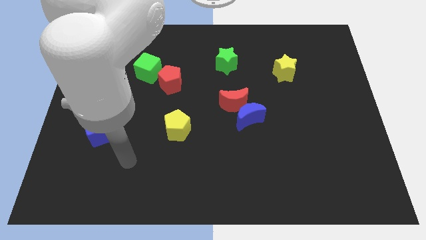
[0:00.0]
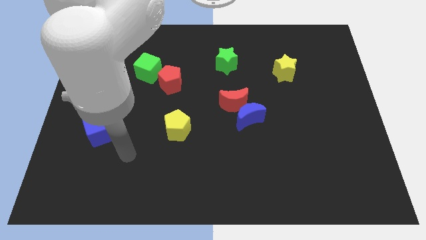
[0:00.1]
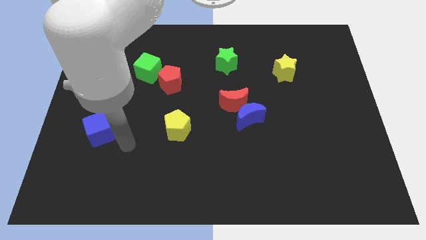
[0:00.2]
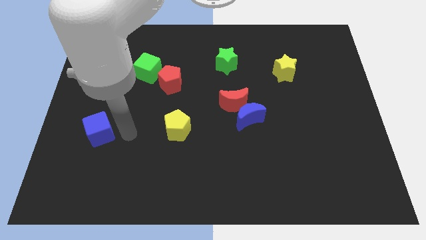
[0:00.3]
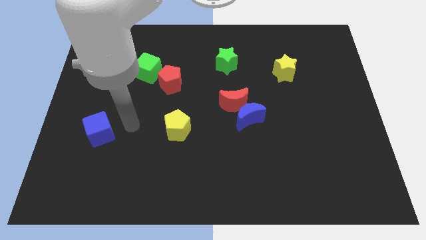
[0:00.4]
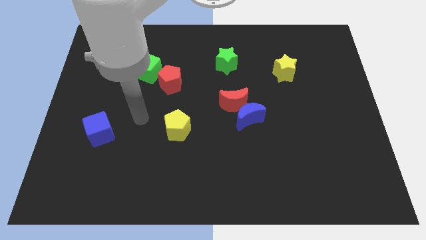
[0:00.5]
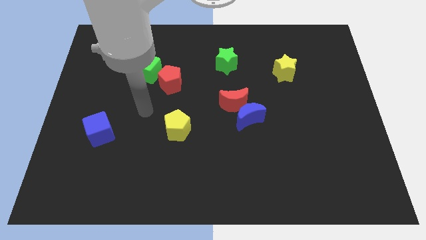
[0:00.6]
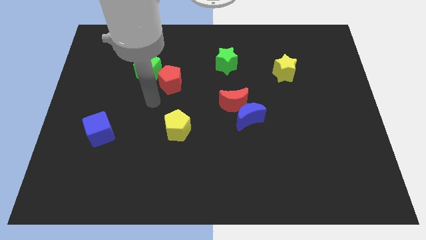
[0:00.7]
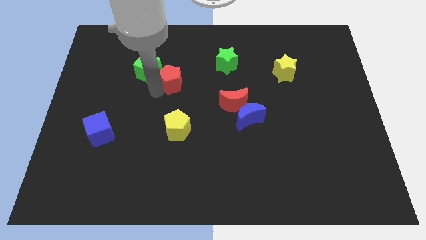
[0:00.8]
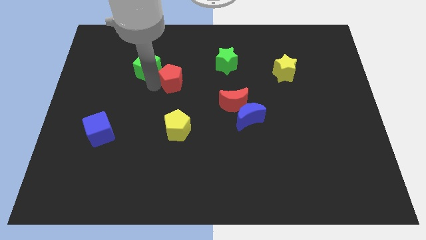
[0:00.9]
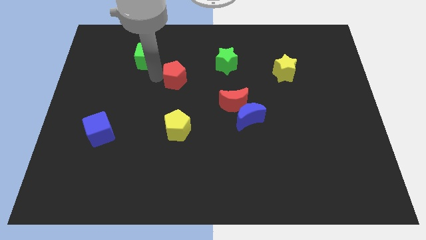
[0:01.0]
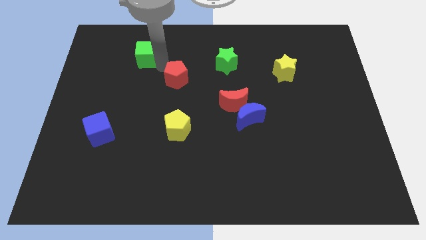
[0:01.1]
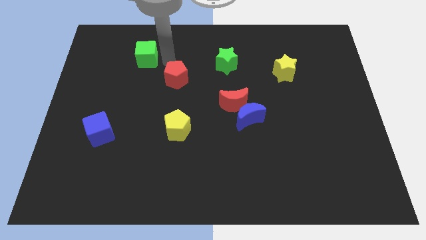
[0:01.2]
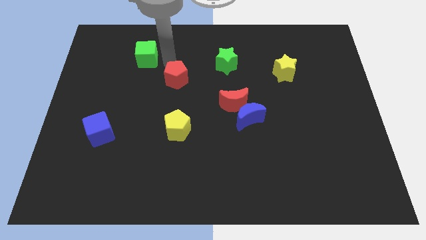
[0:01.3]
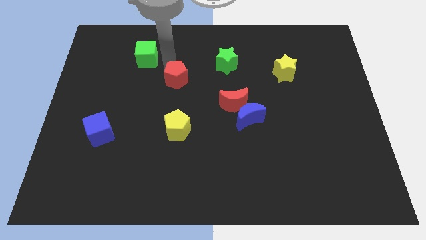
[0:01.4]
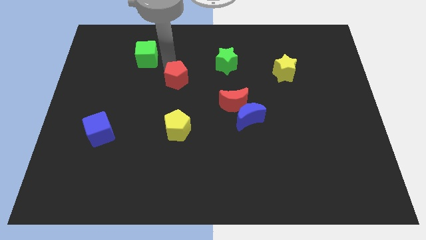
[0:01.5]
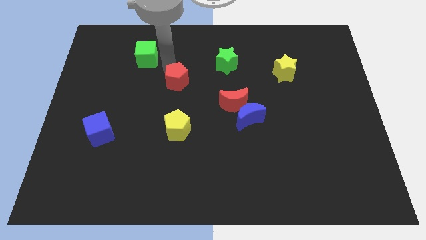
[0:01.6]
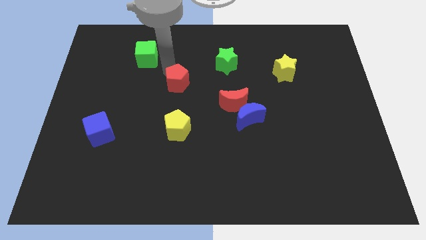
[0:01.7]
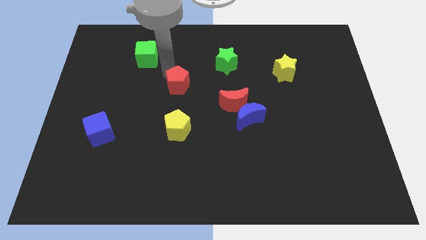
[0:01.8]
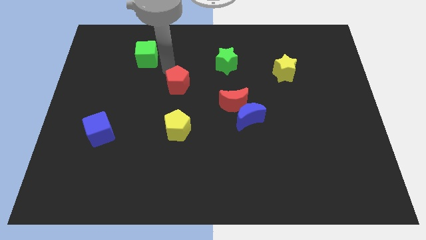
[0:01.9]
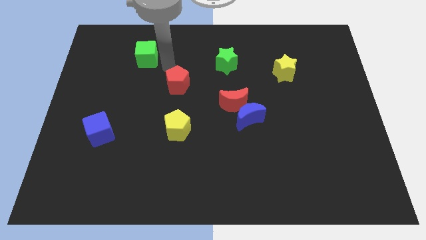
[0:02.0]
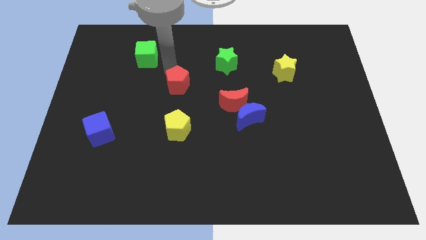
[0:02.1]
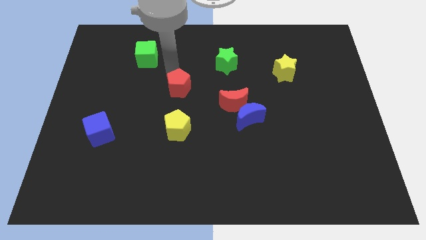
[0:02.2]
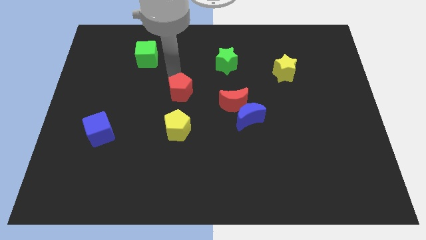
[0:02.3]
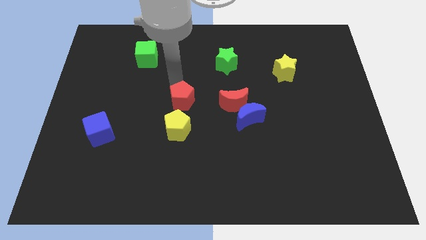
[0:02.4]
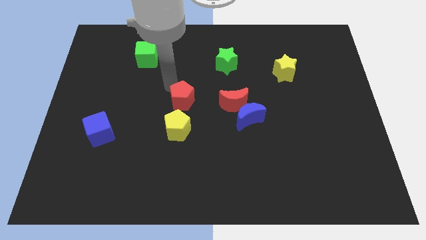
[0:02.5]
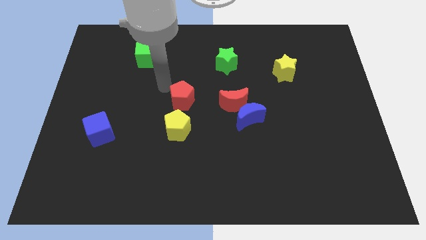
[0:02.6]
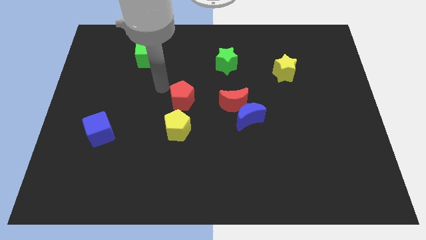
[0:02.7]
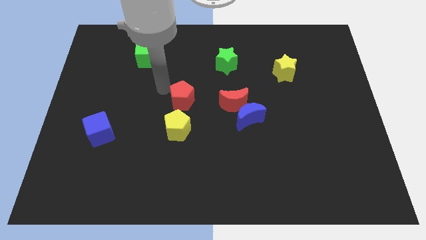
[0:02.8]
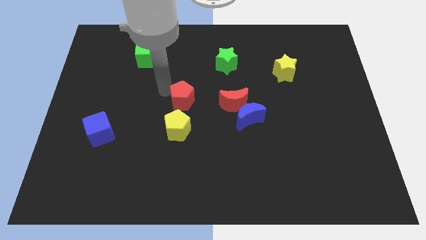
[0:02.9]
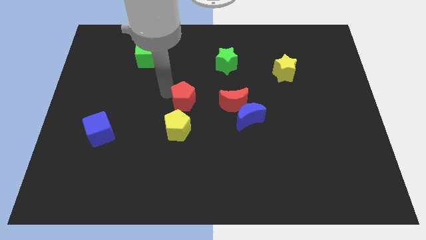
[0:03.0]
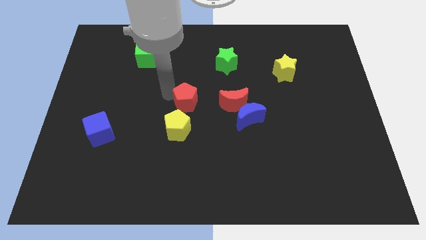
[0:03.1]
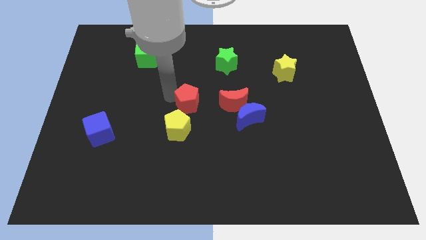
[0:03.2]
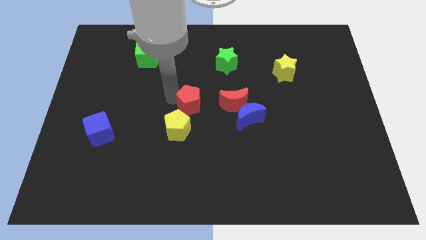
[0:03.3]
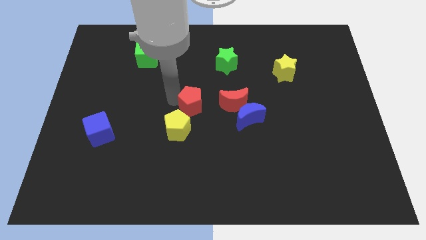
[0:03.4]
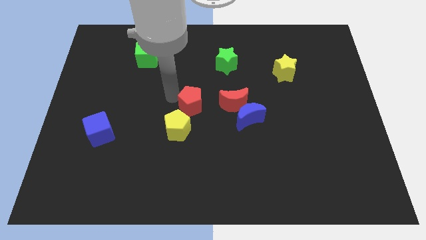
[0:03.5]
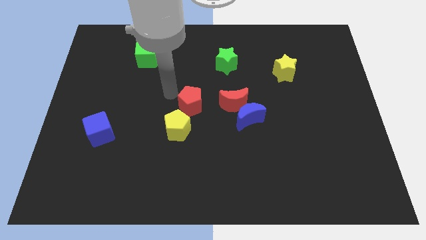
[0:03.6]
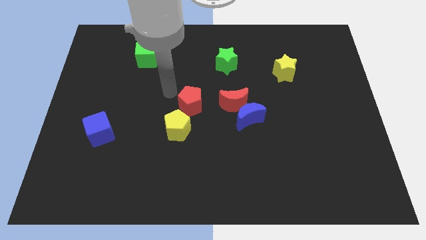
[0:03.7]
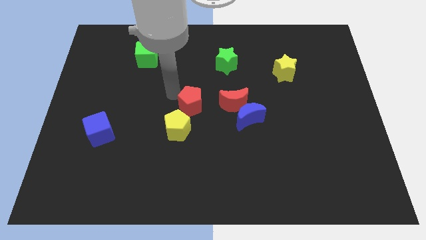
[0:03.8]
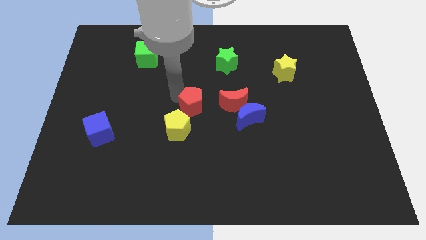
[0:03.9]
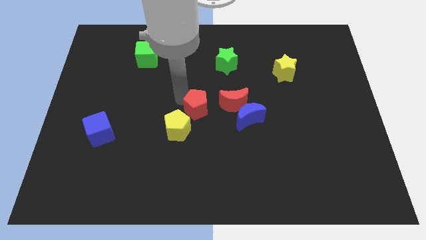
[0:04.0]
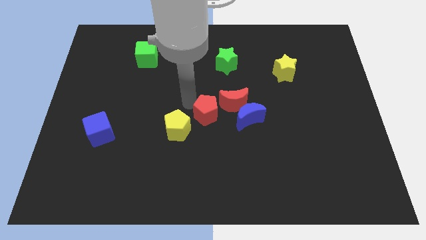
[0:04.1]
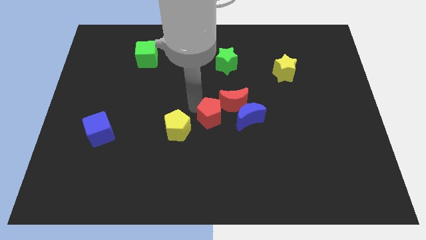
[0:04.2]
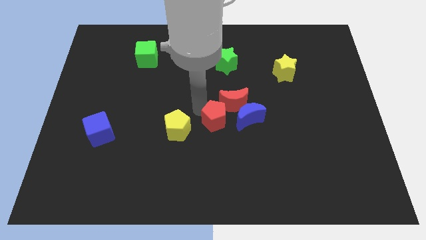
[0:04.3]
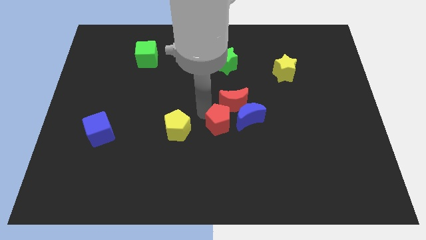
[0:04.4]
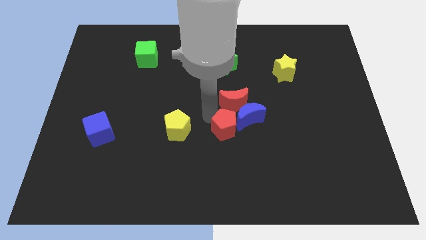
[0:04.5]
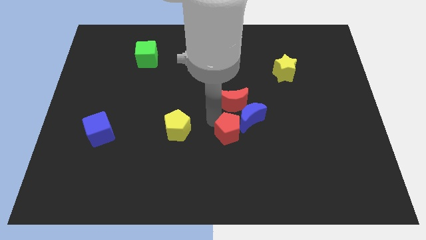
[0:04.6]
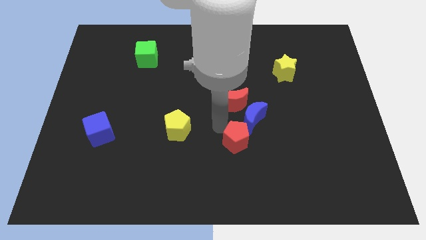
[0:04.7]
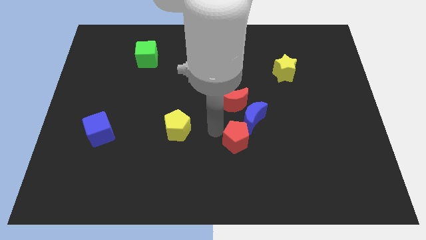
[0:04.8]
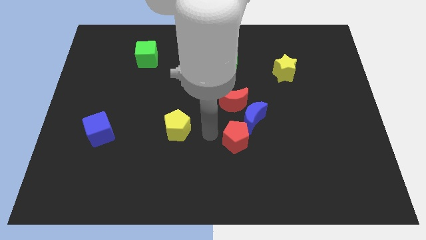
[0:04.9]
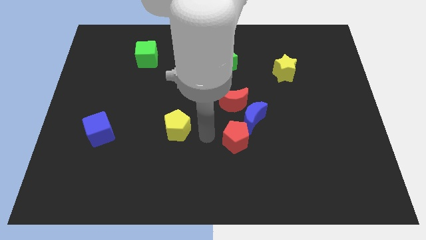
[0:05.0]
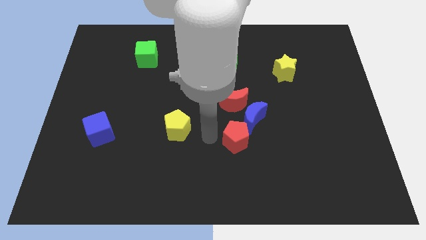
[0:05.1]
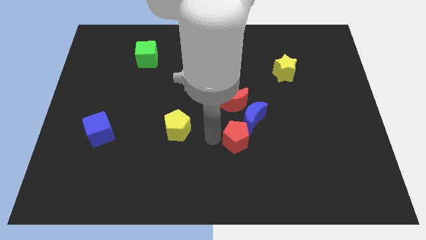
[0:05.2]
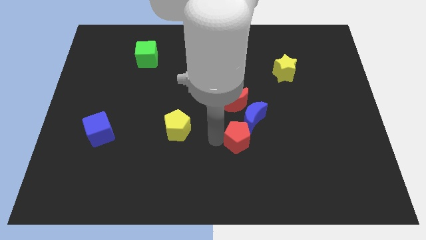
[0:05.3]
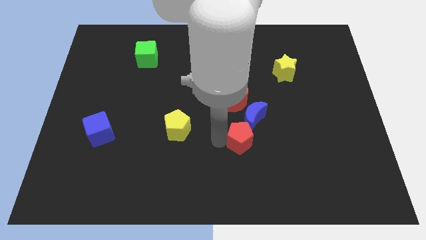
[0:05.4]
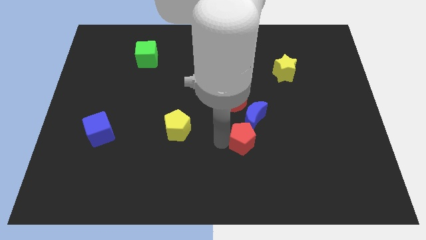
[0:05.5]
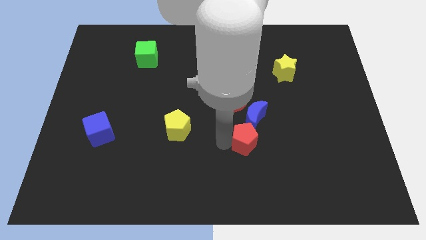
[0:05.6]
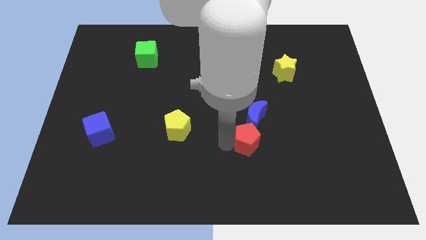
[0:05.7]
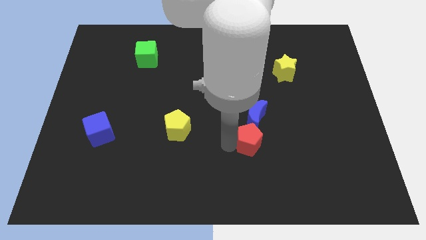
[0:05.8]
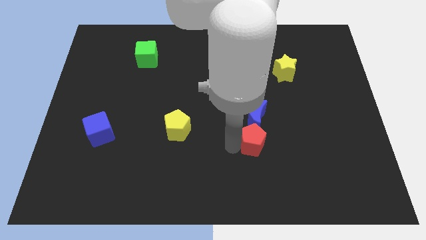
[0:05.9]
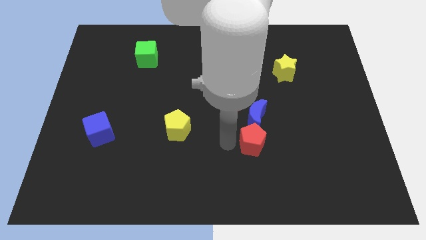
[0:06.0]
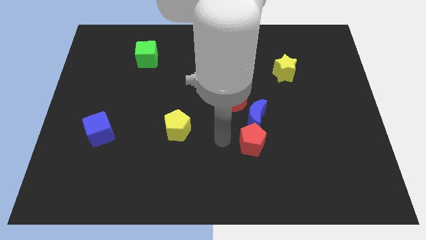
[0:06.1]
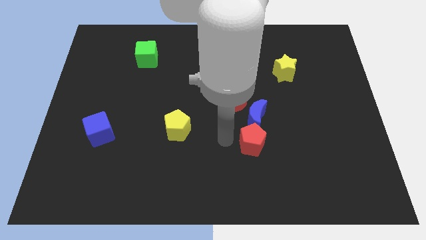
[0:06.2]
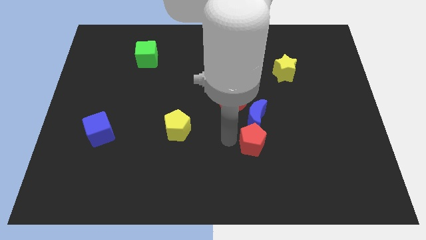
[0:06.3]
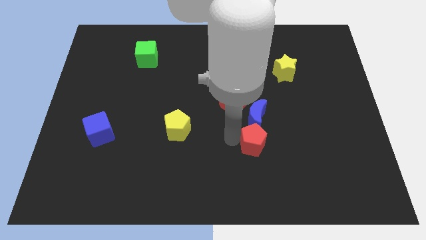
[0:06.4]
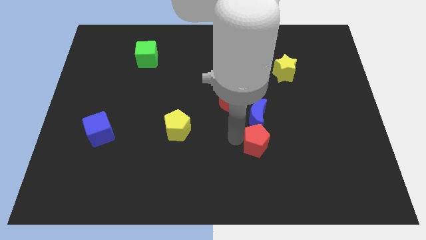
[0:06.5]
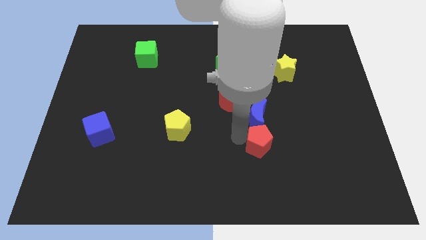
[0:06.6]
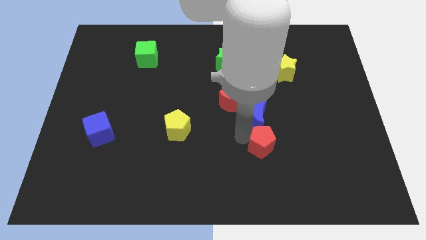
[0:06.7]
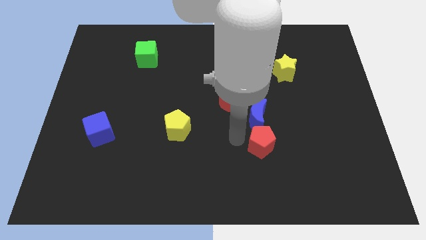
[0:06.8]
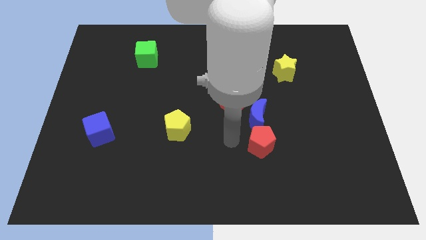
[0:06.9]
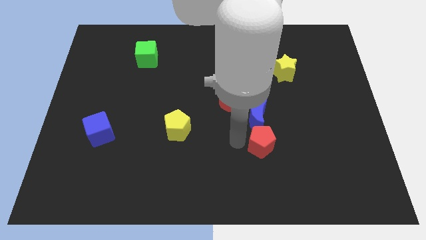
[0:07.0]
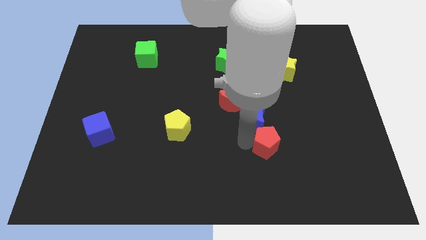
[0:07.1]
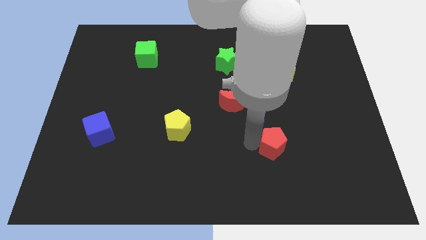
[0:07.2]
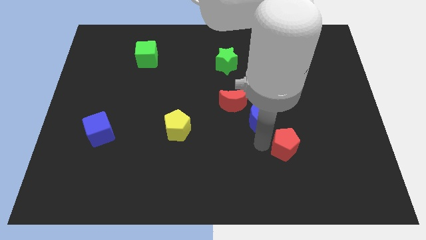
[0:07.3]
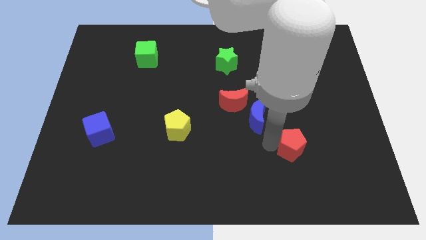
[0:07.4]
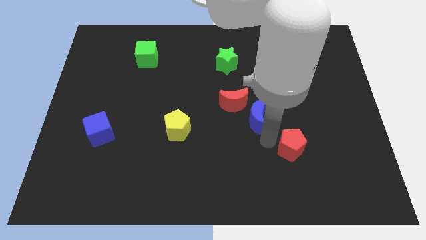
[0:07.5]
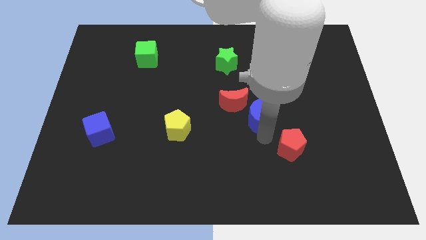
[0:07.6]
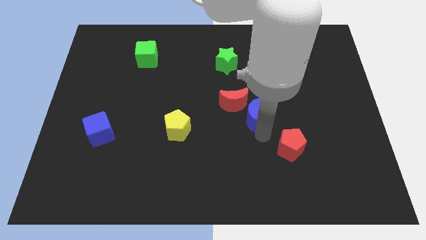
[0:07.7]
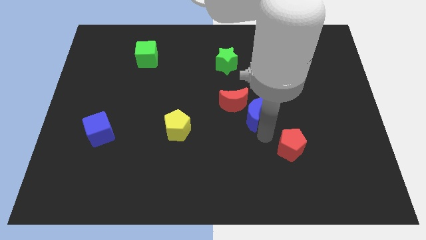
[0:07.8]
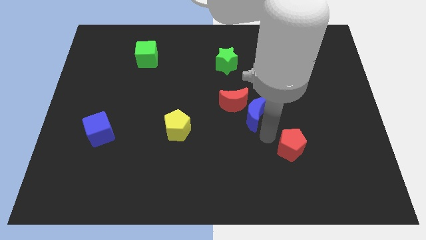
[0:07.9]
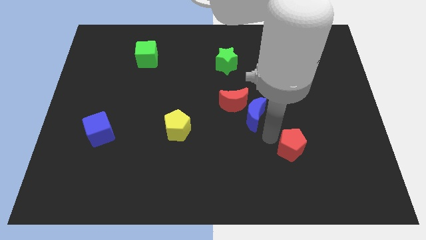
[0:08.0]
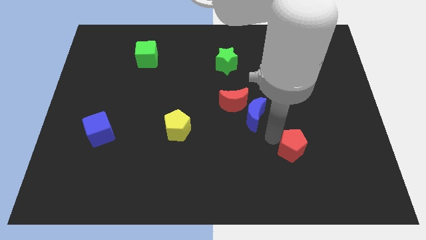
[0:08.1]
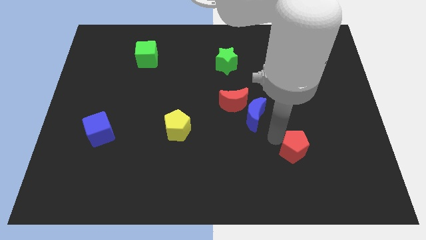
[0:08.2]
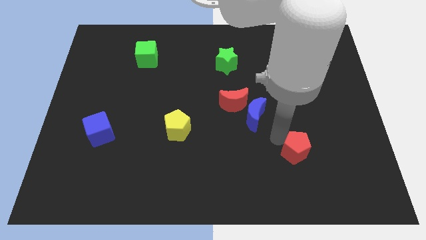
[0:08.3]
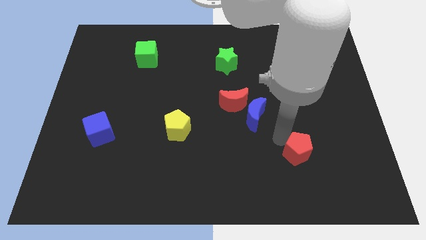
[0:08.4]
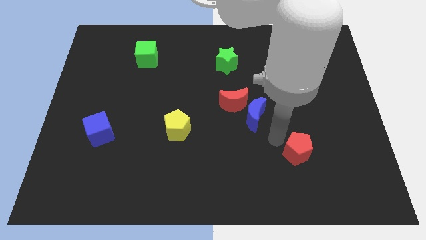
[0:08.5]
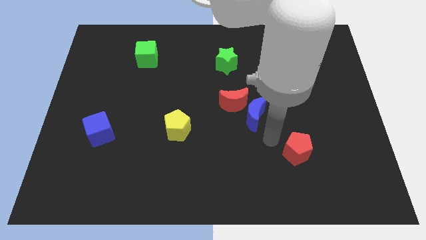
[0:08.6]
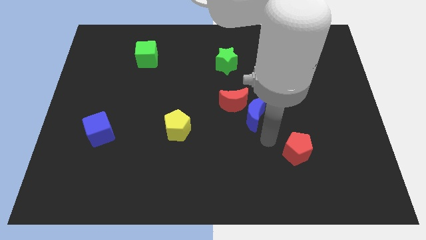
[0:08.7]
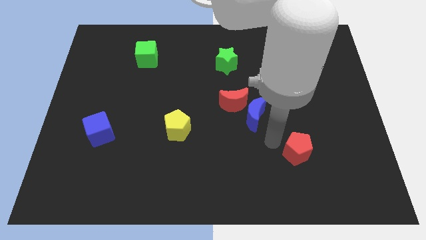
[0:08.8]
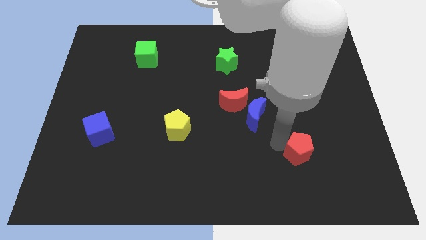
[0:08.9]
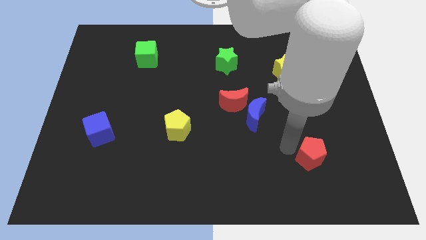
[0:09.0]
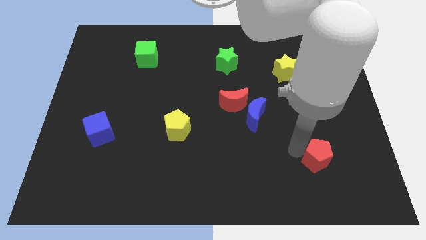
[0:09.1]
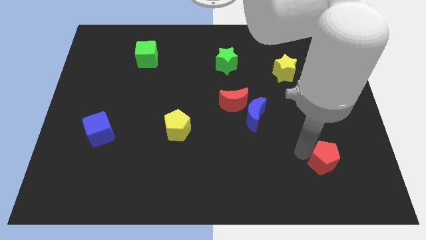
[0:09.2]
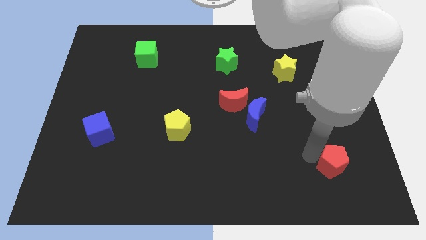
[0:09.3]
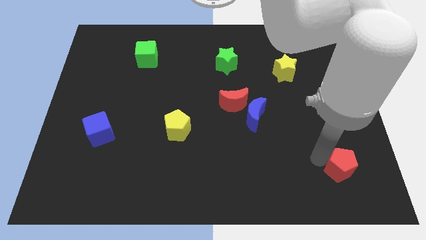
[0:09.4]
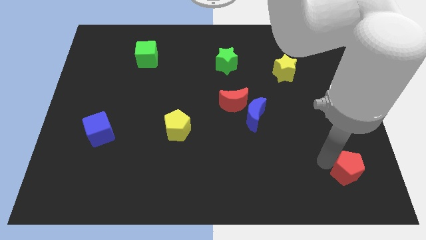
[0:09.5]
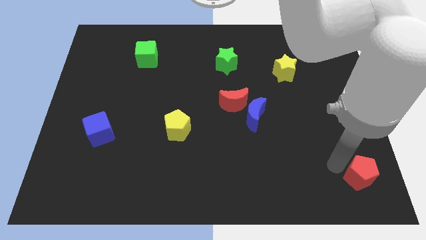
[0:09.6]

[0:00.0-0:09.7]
move the red pentagon to the bottom right of the board
